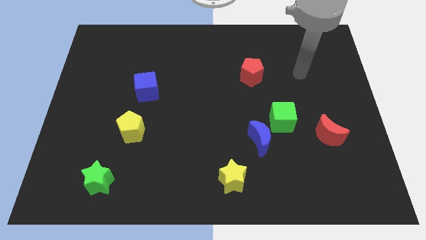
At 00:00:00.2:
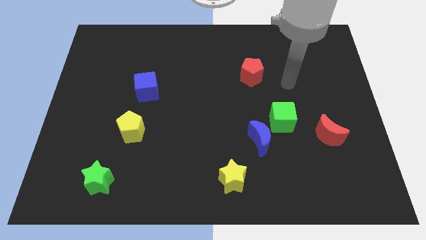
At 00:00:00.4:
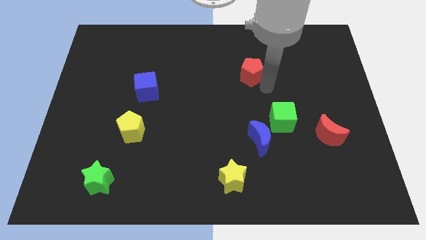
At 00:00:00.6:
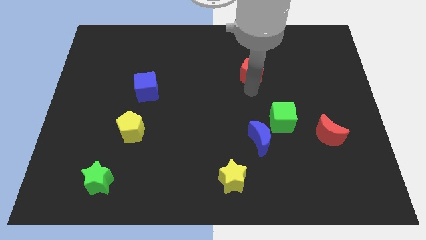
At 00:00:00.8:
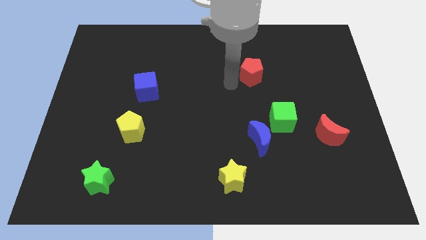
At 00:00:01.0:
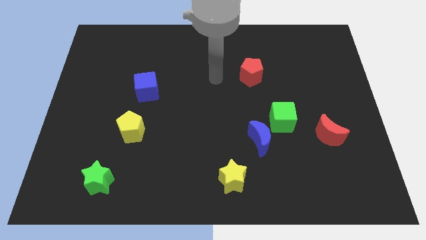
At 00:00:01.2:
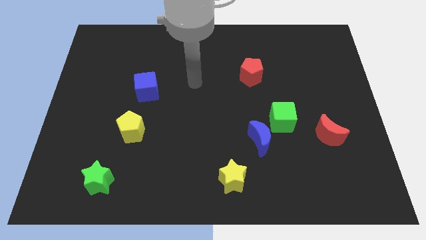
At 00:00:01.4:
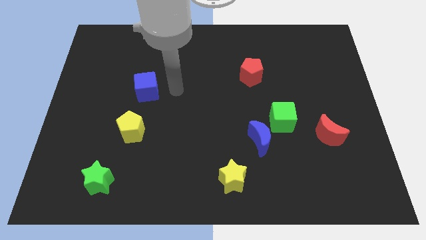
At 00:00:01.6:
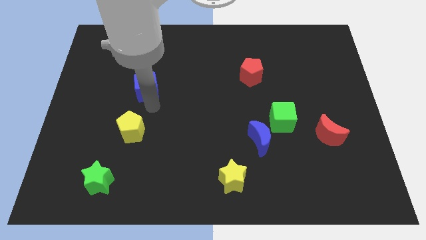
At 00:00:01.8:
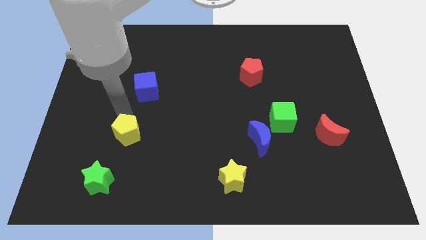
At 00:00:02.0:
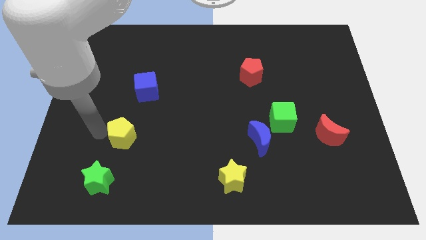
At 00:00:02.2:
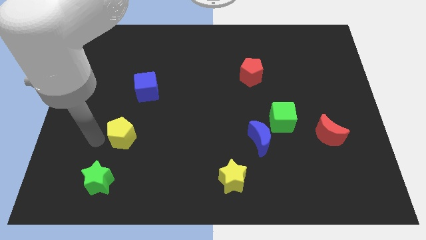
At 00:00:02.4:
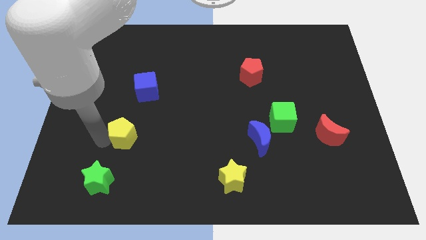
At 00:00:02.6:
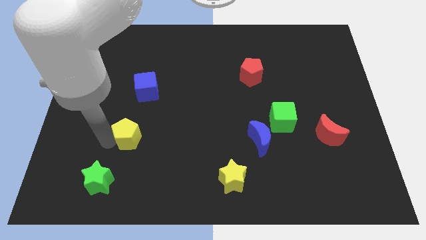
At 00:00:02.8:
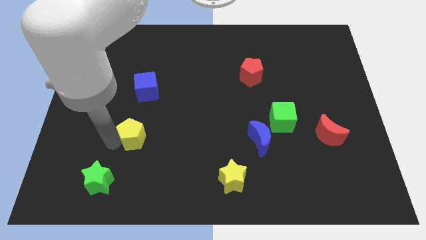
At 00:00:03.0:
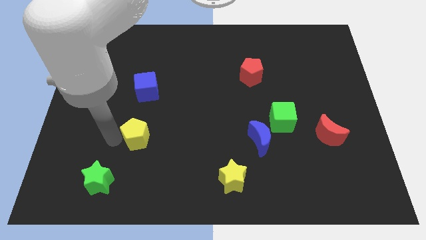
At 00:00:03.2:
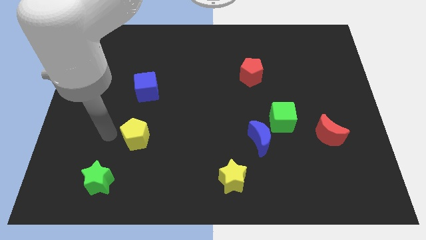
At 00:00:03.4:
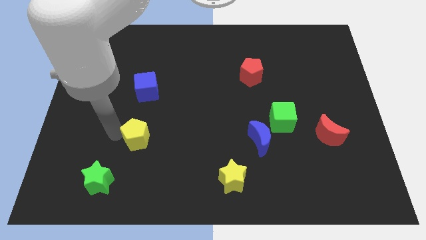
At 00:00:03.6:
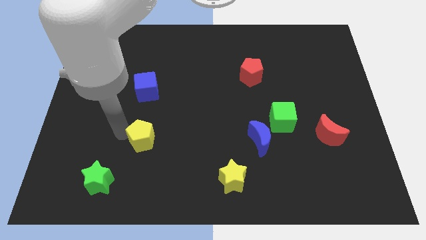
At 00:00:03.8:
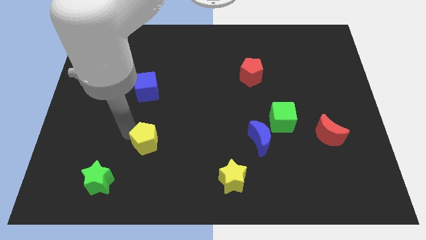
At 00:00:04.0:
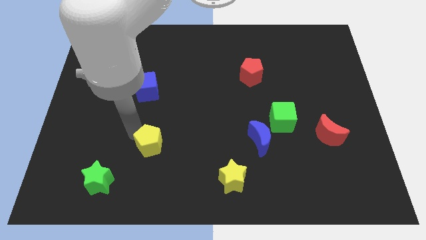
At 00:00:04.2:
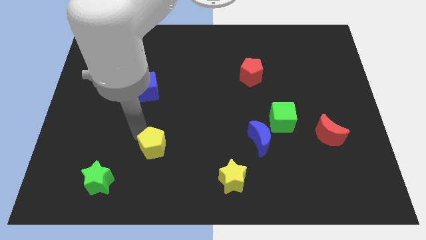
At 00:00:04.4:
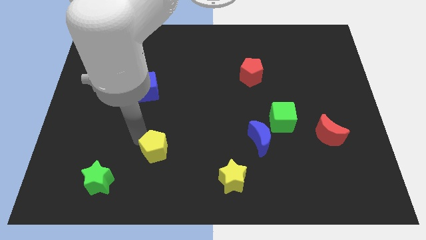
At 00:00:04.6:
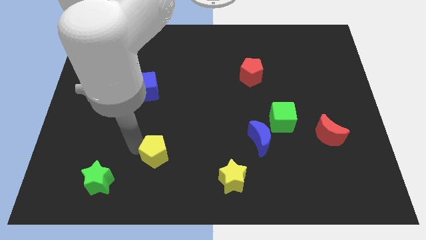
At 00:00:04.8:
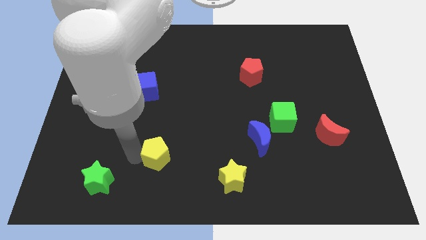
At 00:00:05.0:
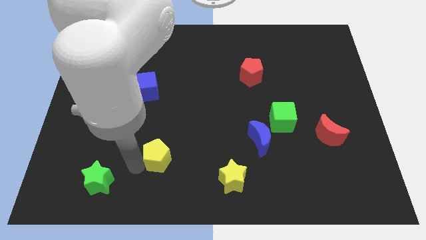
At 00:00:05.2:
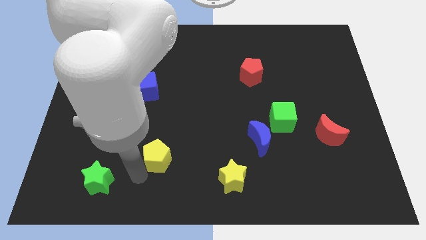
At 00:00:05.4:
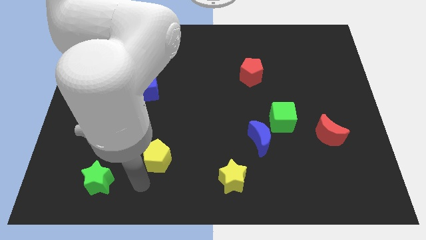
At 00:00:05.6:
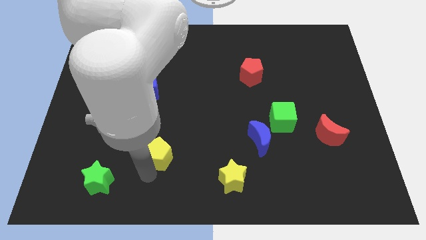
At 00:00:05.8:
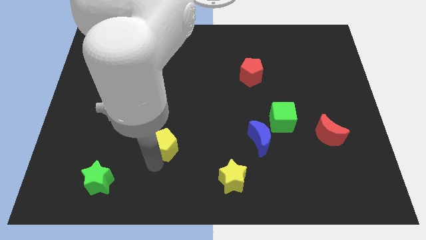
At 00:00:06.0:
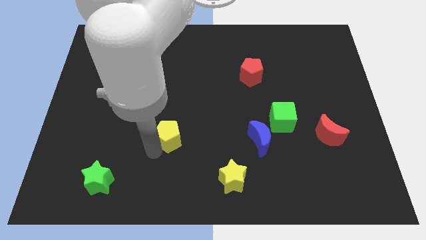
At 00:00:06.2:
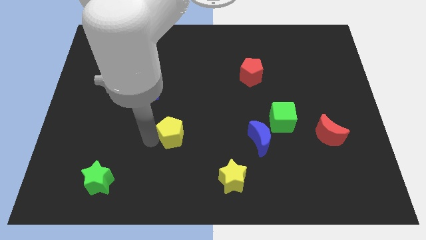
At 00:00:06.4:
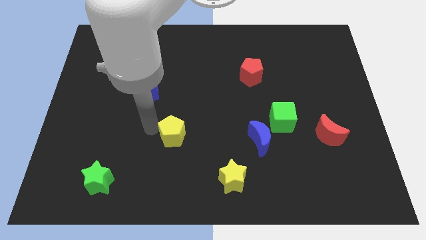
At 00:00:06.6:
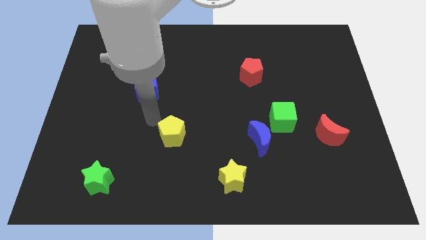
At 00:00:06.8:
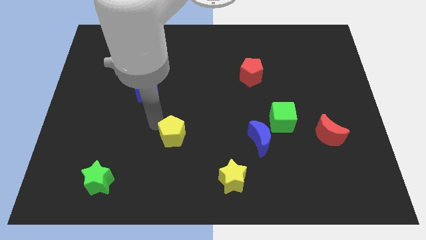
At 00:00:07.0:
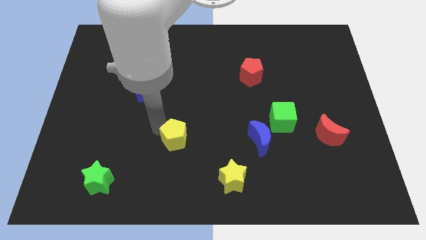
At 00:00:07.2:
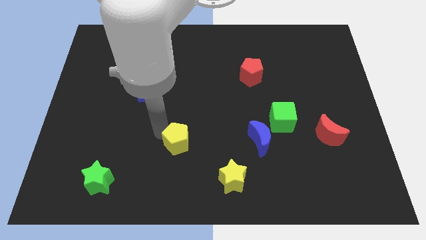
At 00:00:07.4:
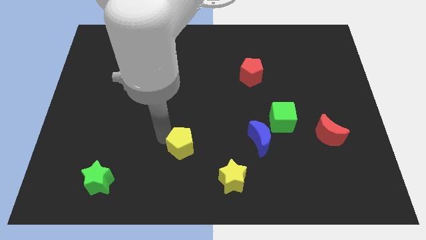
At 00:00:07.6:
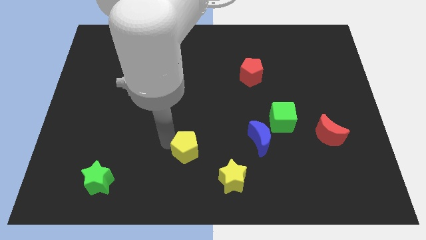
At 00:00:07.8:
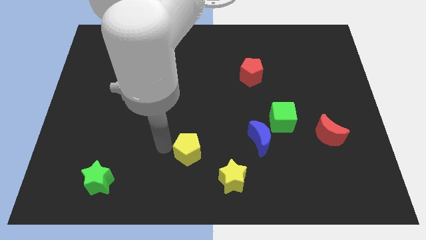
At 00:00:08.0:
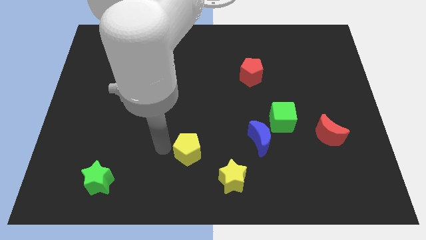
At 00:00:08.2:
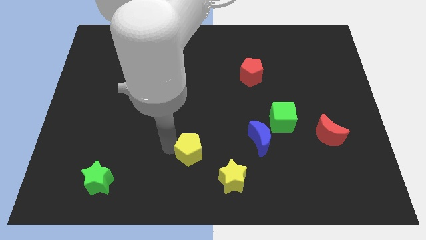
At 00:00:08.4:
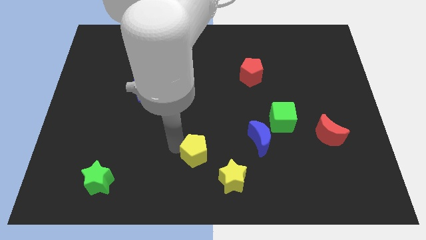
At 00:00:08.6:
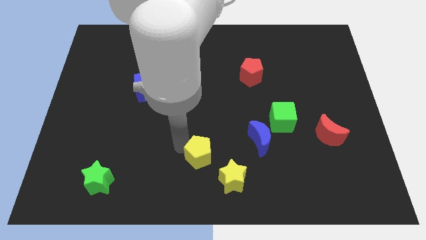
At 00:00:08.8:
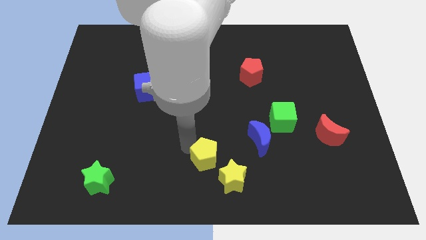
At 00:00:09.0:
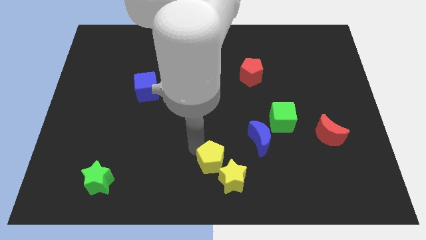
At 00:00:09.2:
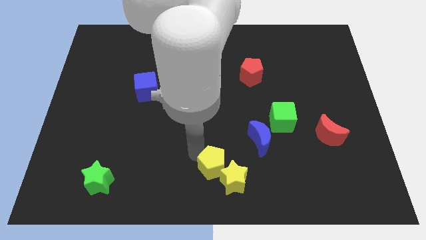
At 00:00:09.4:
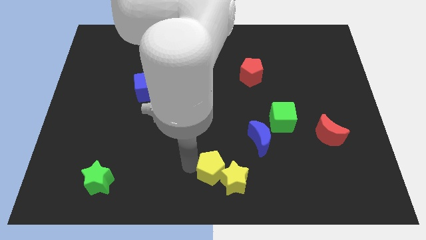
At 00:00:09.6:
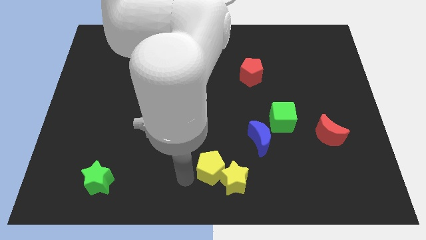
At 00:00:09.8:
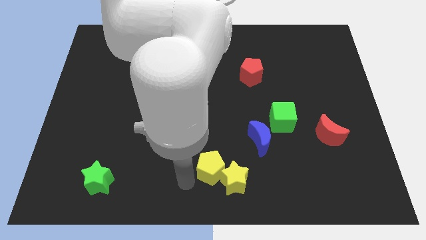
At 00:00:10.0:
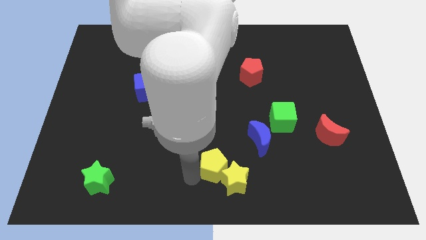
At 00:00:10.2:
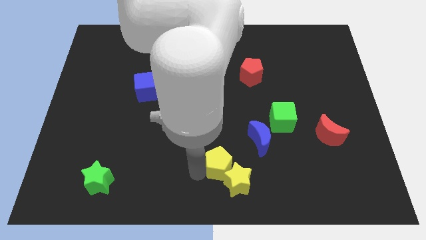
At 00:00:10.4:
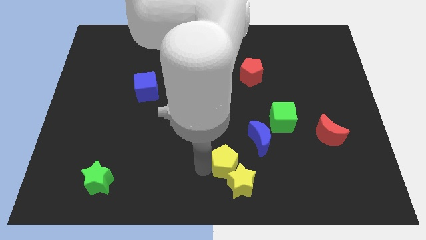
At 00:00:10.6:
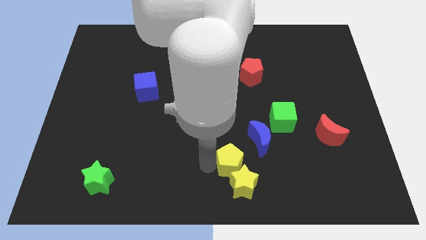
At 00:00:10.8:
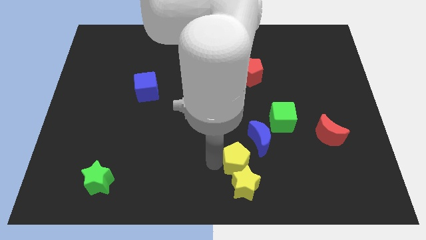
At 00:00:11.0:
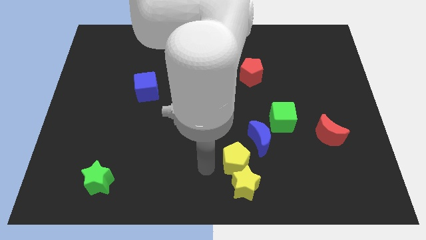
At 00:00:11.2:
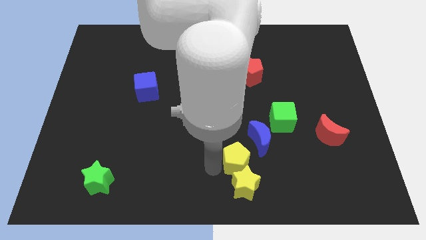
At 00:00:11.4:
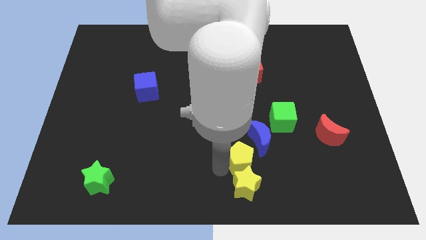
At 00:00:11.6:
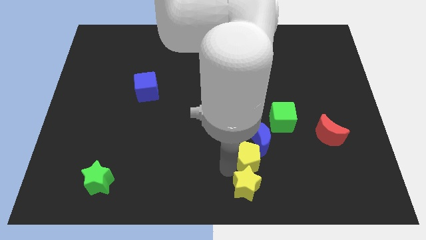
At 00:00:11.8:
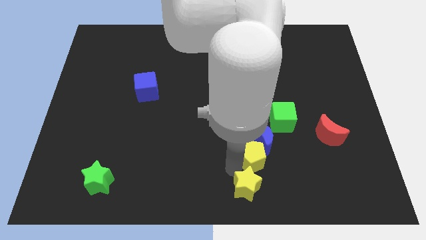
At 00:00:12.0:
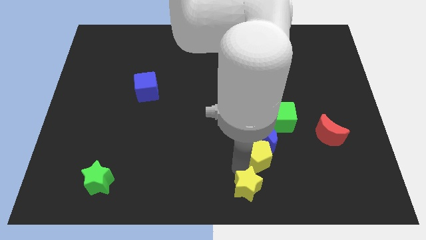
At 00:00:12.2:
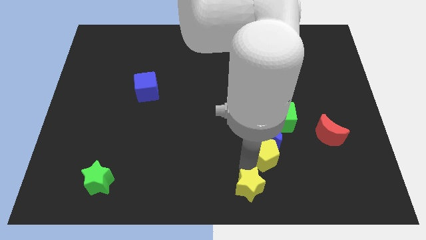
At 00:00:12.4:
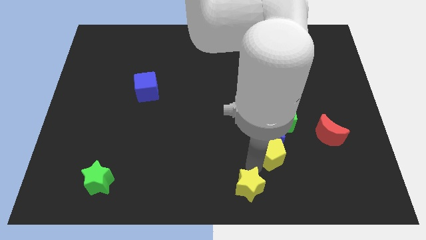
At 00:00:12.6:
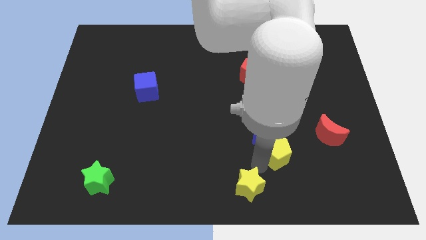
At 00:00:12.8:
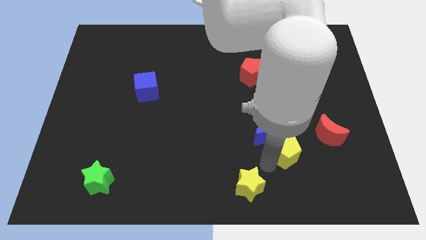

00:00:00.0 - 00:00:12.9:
slide the yellow pentagon just right of the blue moon

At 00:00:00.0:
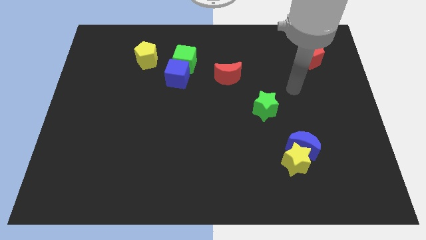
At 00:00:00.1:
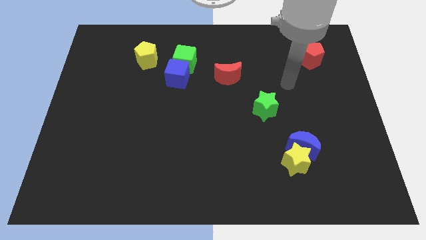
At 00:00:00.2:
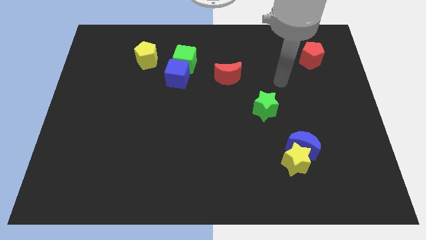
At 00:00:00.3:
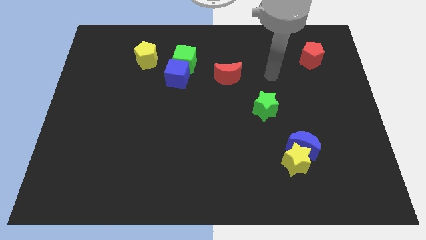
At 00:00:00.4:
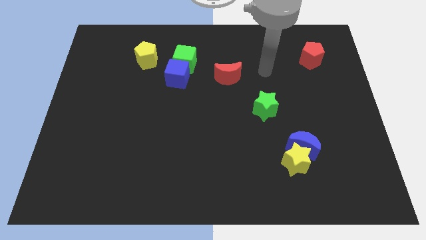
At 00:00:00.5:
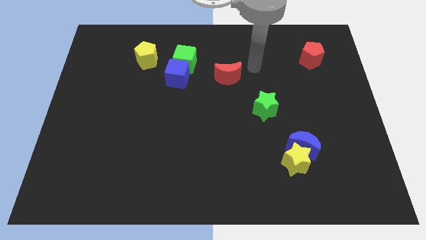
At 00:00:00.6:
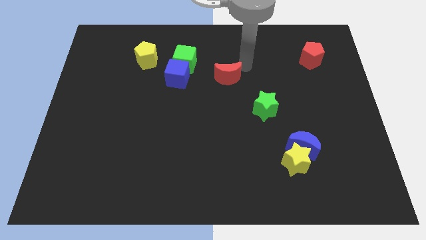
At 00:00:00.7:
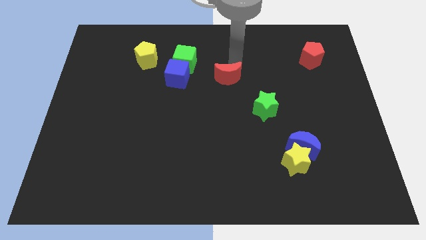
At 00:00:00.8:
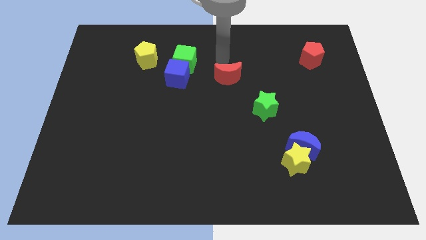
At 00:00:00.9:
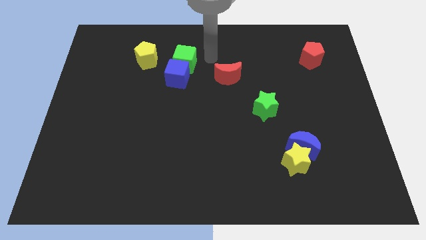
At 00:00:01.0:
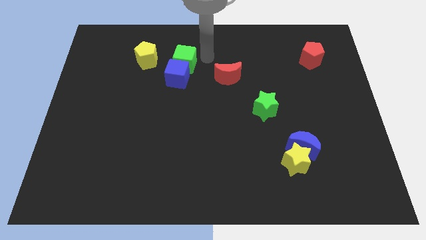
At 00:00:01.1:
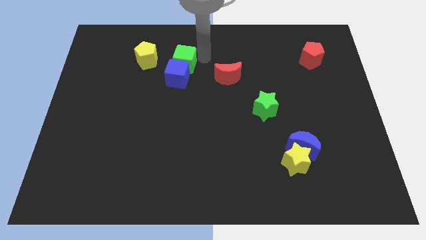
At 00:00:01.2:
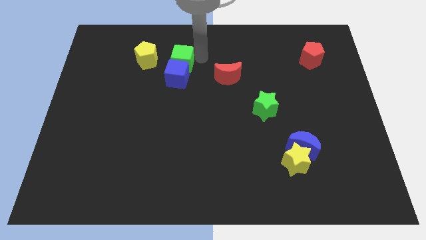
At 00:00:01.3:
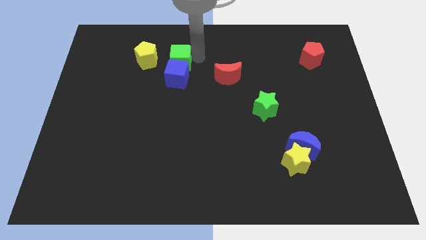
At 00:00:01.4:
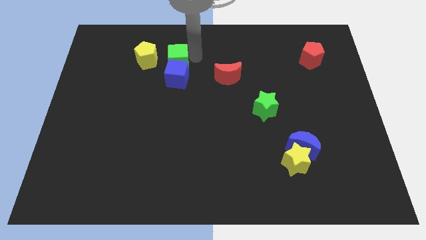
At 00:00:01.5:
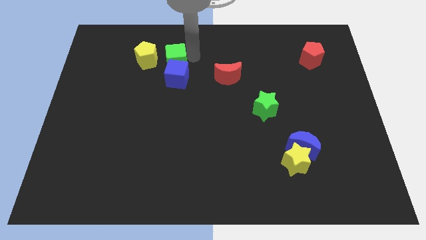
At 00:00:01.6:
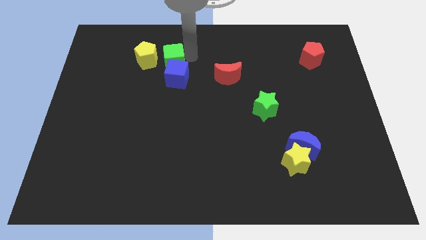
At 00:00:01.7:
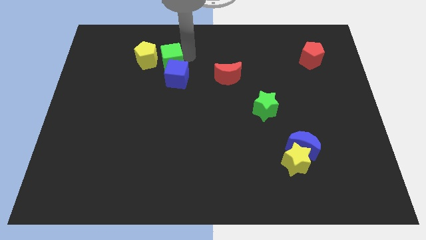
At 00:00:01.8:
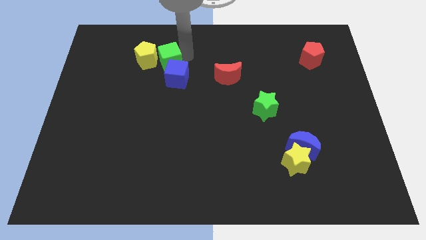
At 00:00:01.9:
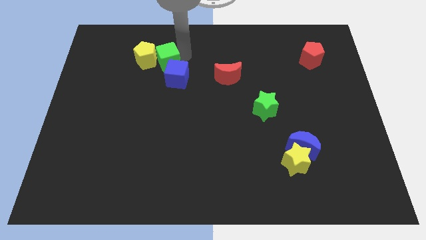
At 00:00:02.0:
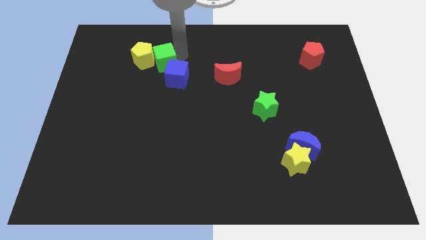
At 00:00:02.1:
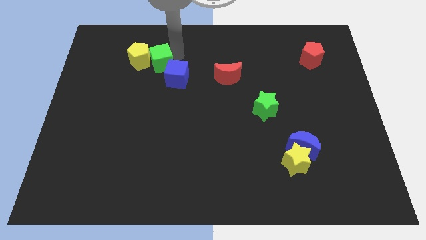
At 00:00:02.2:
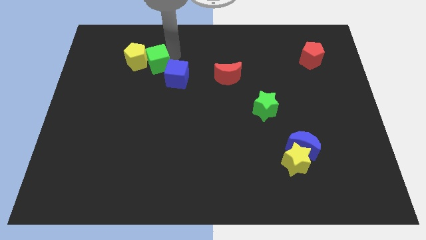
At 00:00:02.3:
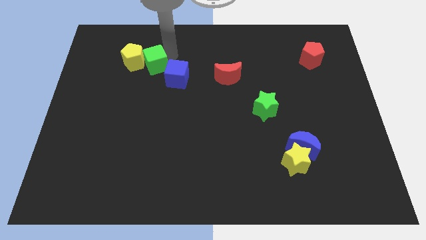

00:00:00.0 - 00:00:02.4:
move the green cube just left of the blue cube
